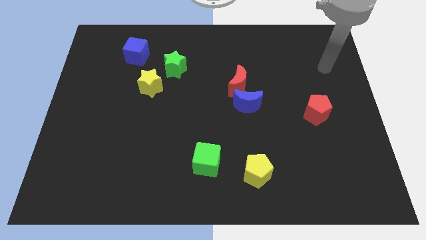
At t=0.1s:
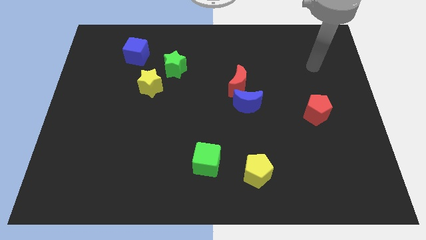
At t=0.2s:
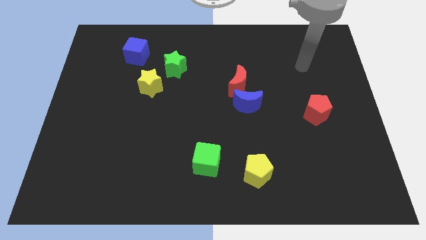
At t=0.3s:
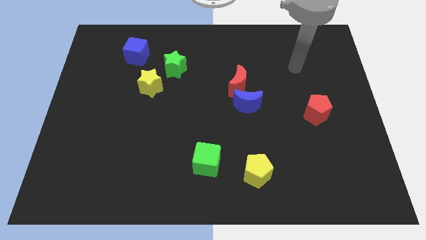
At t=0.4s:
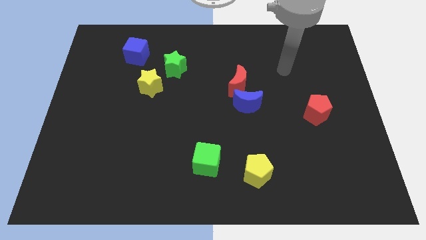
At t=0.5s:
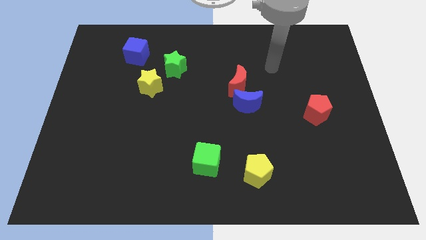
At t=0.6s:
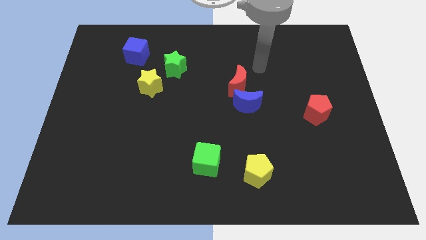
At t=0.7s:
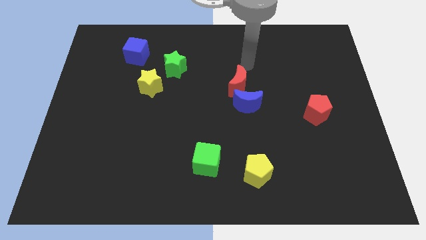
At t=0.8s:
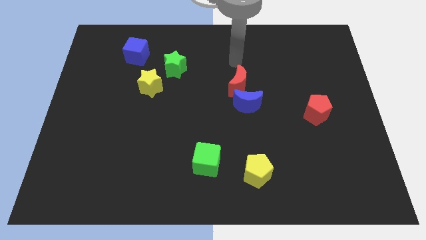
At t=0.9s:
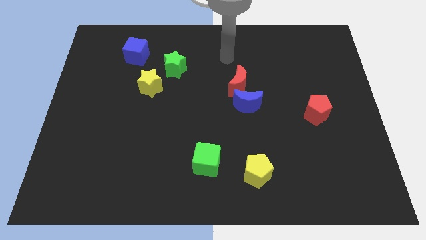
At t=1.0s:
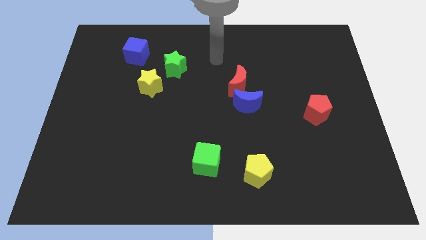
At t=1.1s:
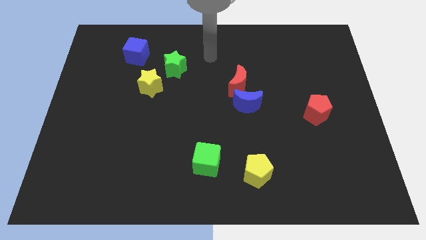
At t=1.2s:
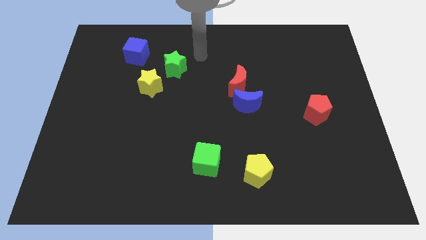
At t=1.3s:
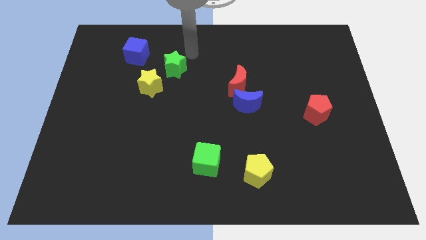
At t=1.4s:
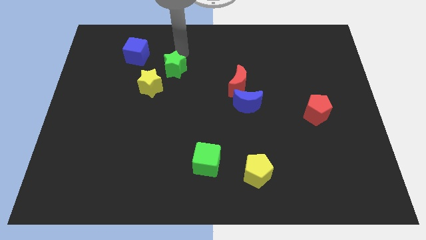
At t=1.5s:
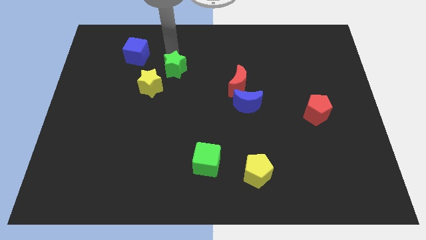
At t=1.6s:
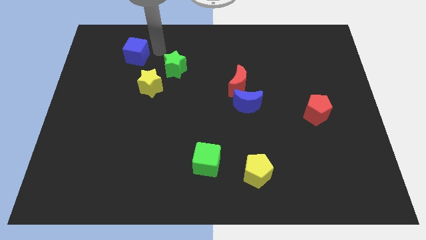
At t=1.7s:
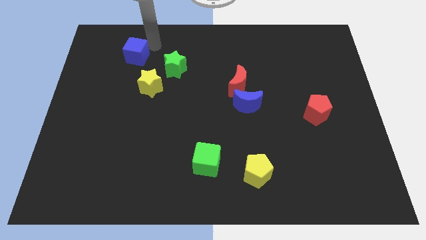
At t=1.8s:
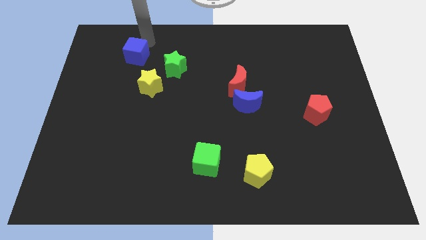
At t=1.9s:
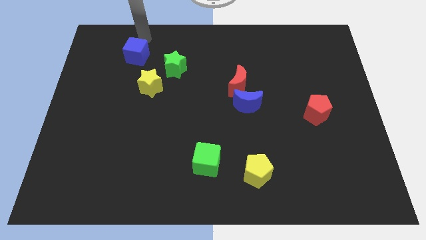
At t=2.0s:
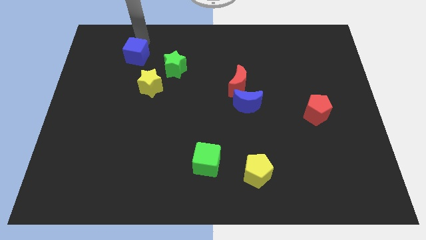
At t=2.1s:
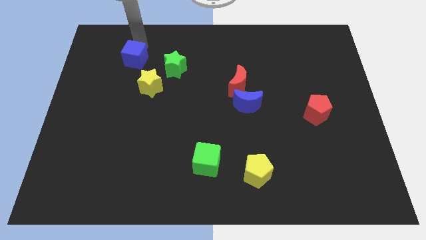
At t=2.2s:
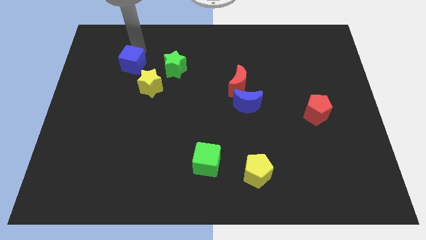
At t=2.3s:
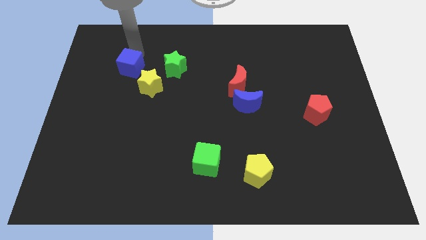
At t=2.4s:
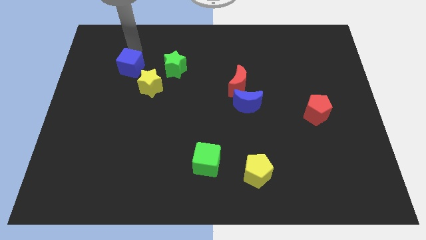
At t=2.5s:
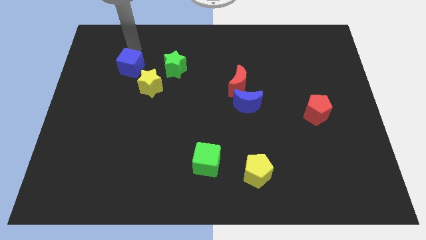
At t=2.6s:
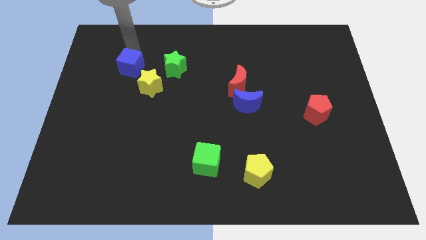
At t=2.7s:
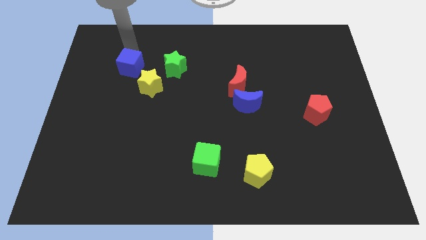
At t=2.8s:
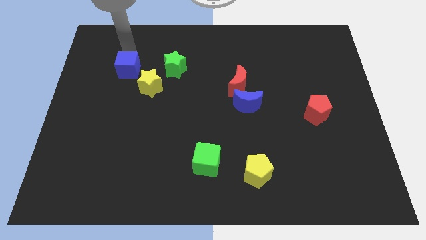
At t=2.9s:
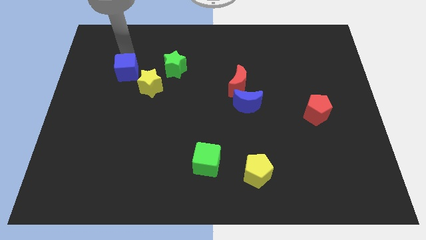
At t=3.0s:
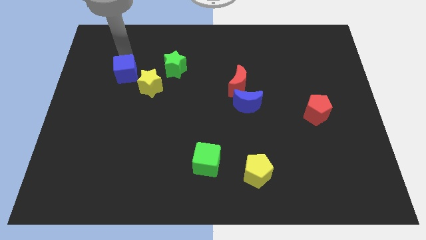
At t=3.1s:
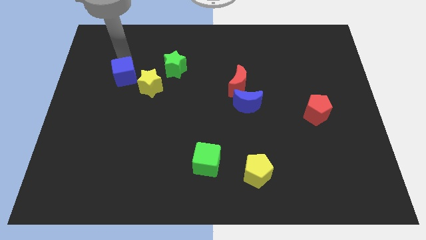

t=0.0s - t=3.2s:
push the blue cube downwards somewhat

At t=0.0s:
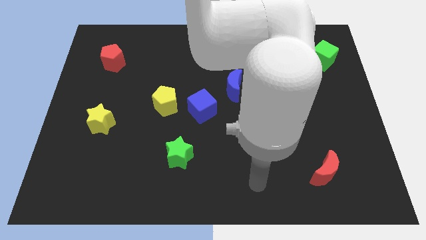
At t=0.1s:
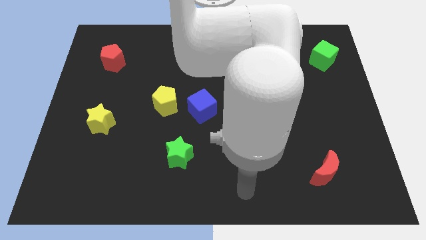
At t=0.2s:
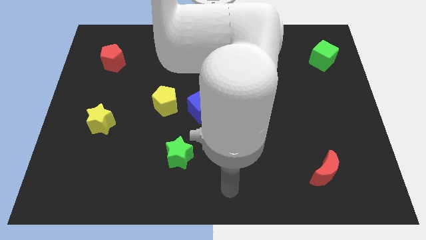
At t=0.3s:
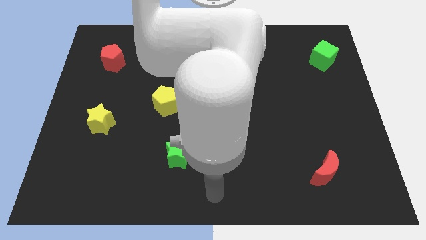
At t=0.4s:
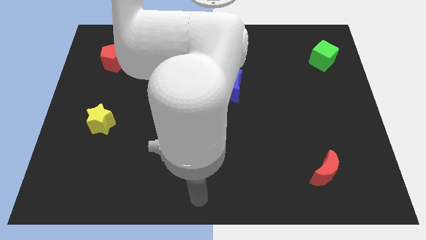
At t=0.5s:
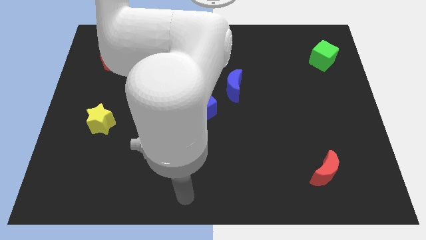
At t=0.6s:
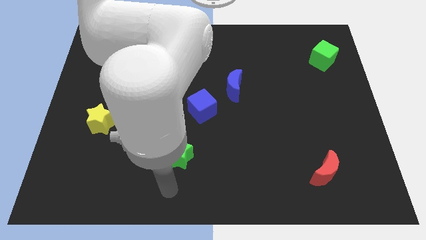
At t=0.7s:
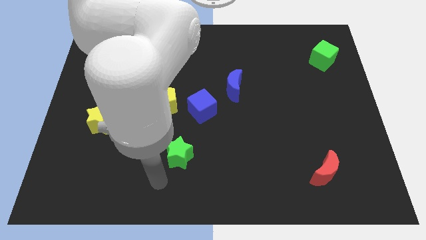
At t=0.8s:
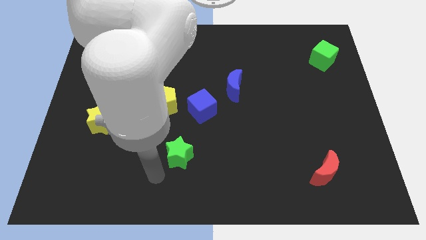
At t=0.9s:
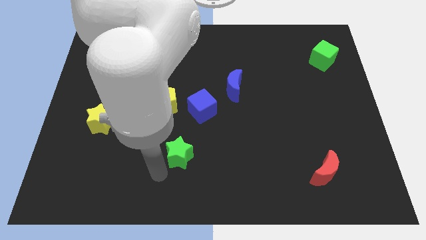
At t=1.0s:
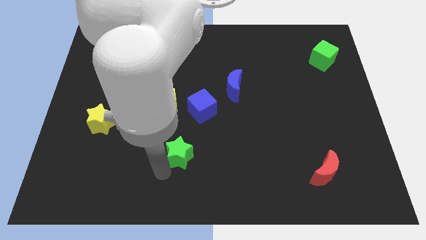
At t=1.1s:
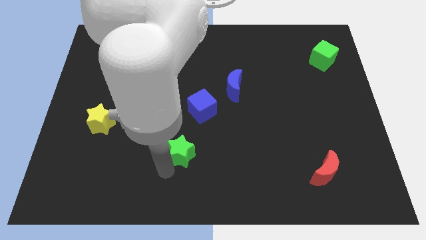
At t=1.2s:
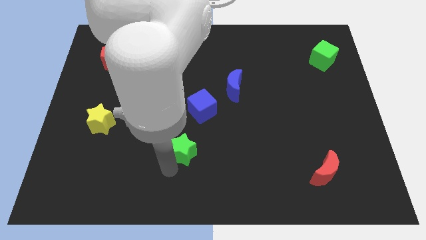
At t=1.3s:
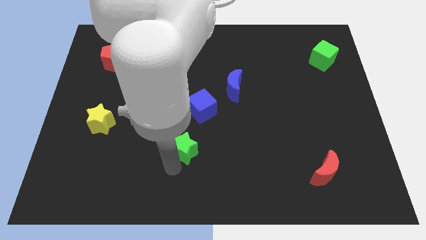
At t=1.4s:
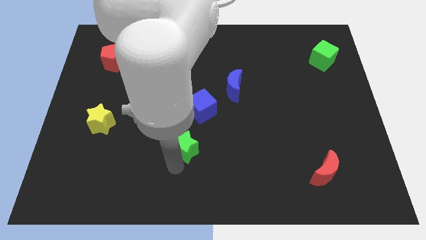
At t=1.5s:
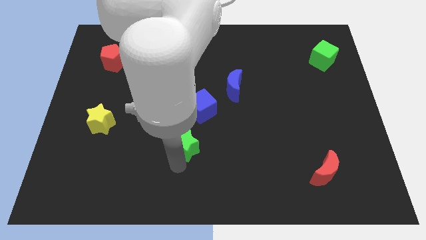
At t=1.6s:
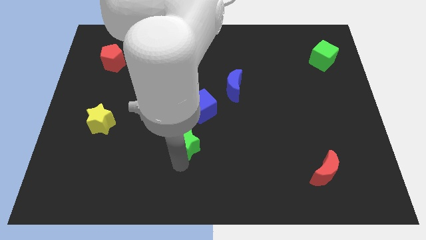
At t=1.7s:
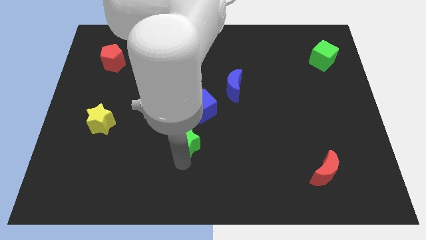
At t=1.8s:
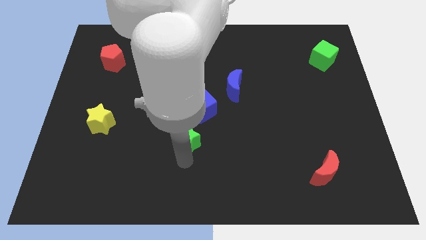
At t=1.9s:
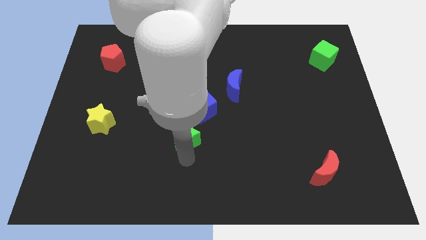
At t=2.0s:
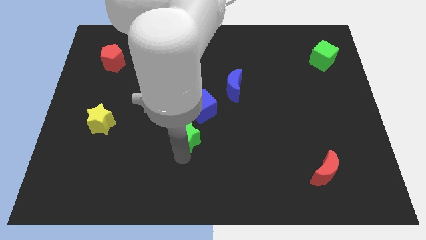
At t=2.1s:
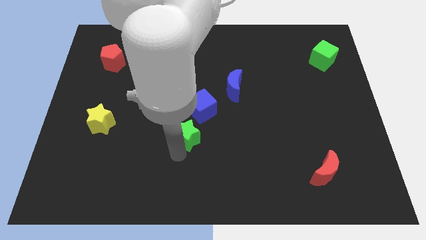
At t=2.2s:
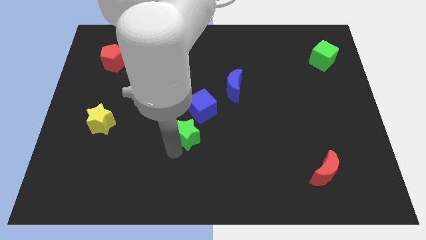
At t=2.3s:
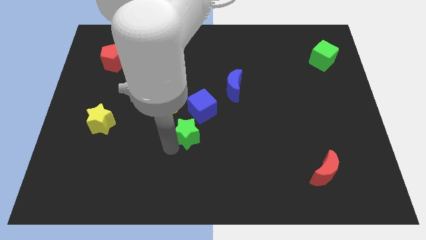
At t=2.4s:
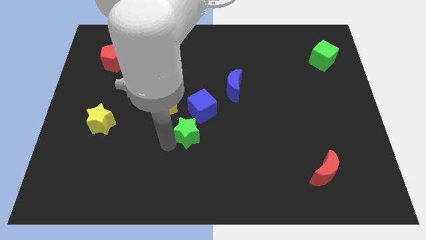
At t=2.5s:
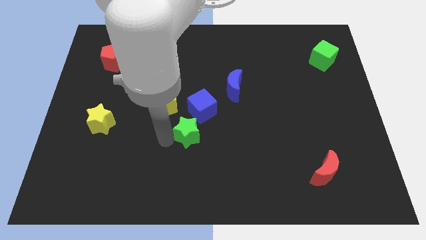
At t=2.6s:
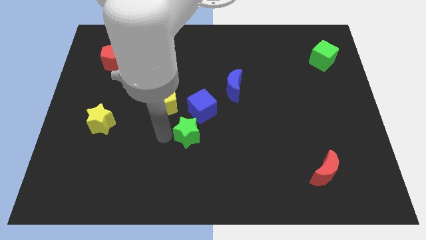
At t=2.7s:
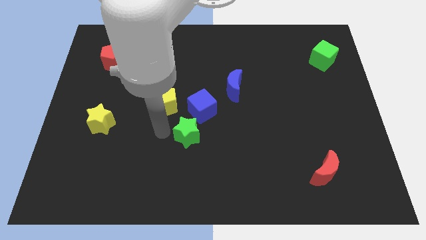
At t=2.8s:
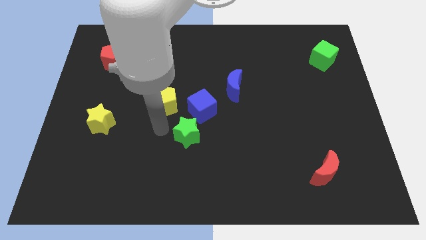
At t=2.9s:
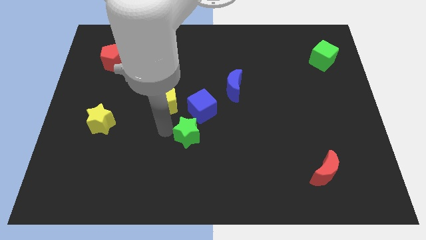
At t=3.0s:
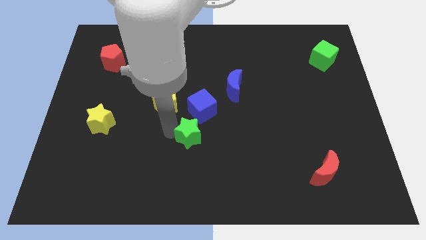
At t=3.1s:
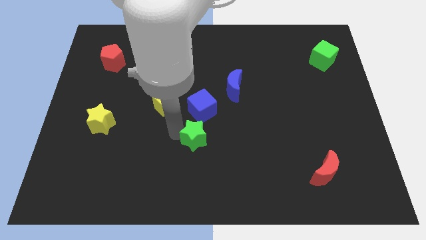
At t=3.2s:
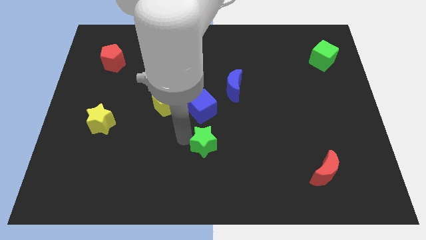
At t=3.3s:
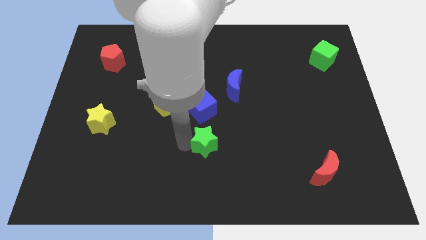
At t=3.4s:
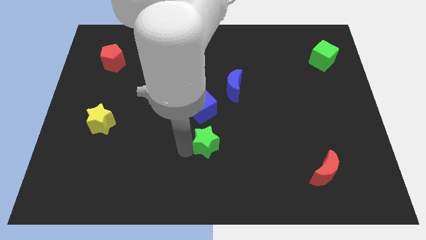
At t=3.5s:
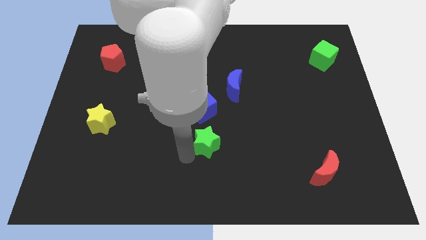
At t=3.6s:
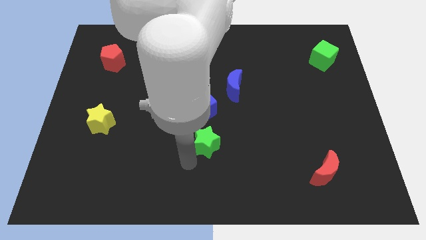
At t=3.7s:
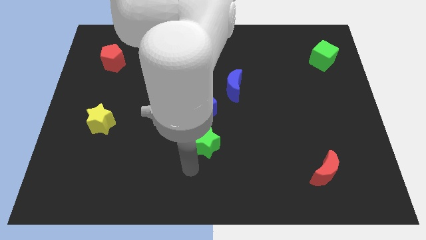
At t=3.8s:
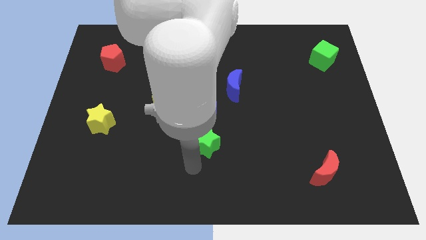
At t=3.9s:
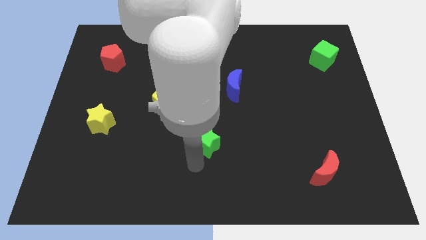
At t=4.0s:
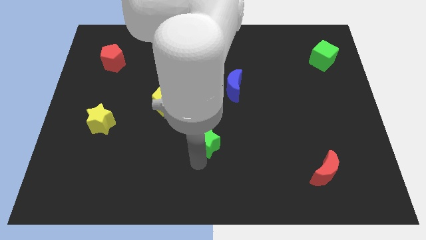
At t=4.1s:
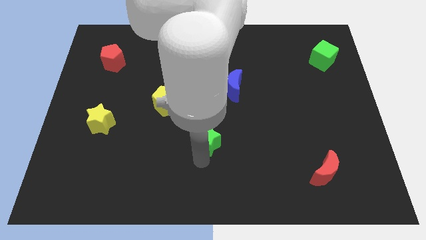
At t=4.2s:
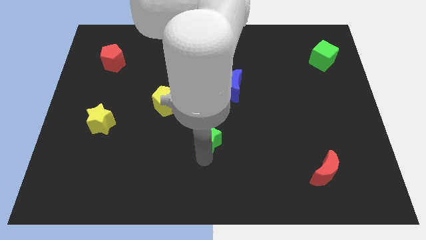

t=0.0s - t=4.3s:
push the green star upwards and to the right somewhat

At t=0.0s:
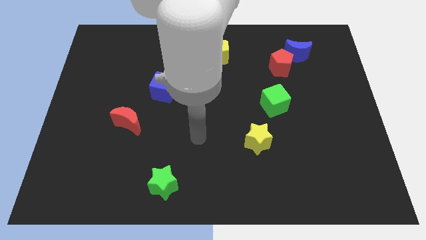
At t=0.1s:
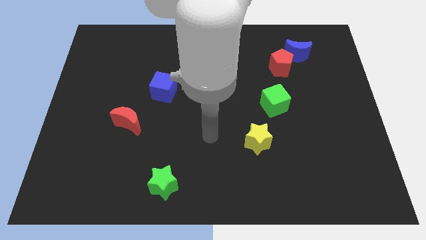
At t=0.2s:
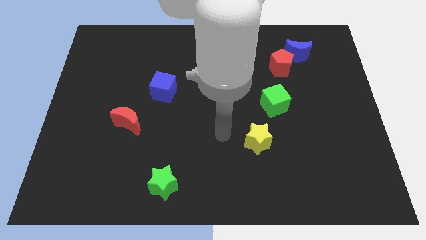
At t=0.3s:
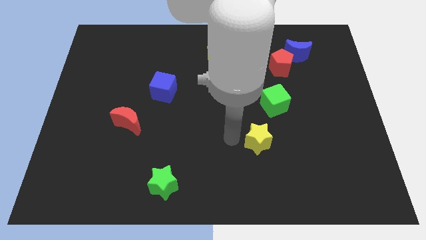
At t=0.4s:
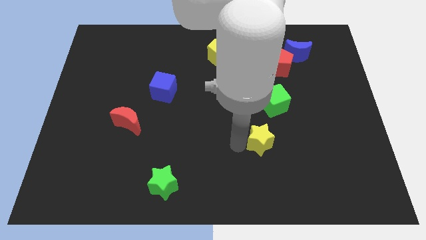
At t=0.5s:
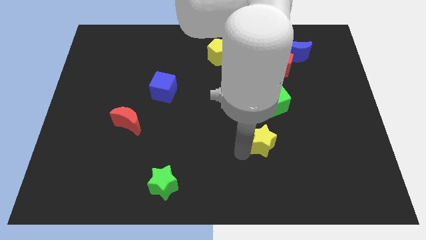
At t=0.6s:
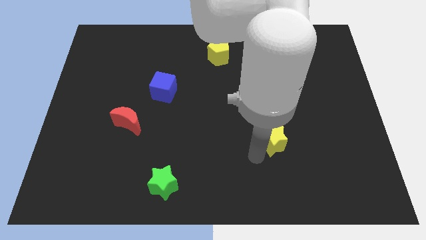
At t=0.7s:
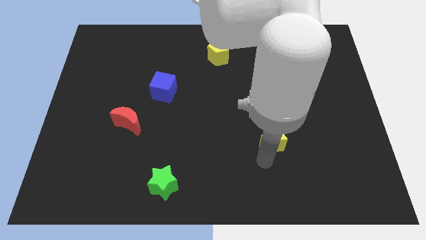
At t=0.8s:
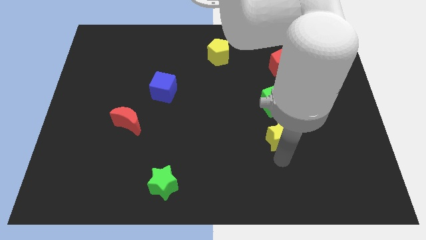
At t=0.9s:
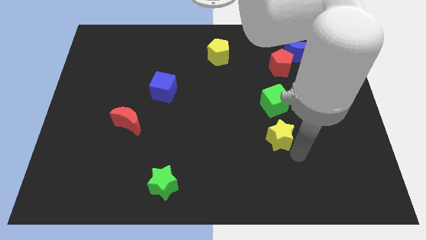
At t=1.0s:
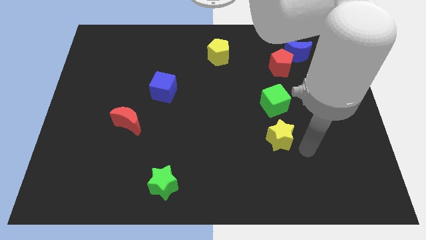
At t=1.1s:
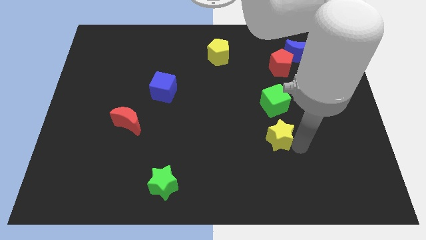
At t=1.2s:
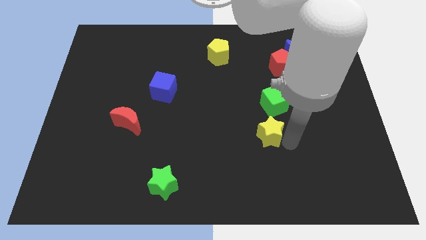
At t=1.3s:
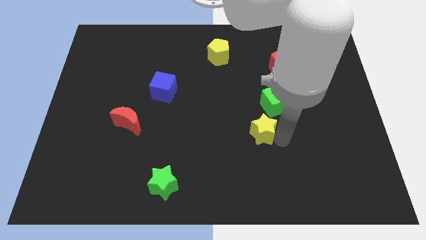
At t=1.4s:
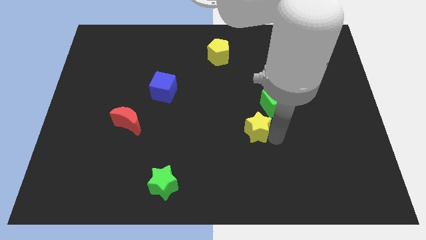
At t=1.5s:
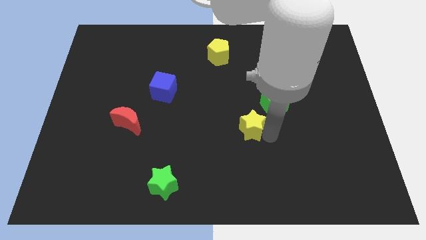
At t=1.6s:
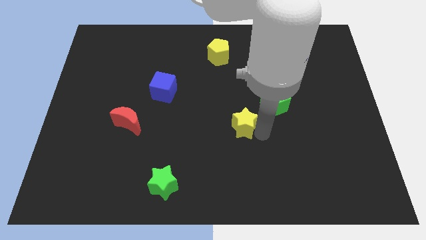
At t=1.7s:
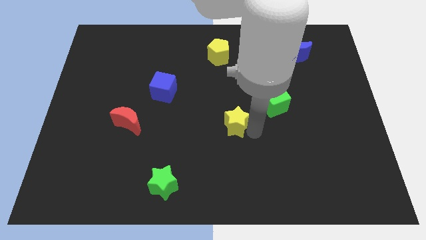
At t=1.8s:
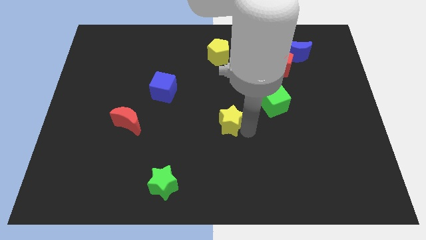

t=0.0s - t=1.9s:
slide the yellow star up and to the left a bit
